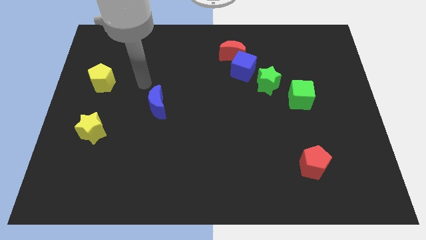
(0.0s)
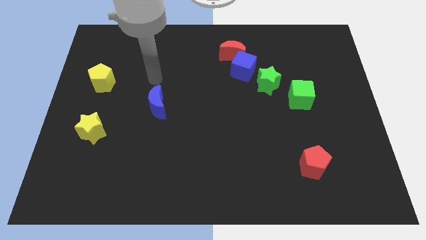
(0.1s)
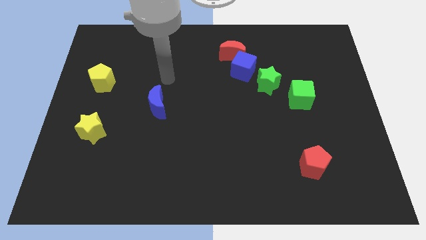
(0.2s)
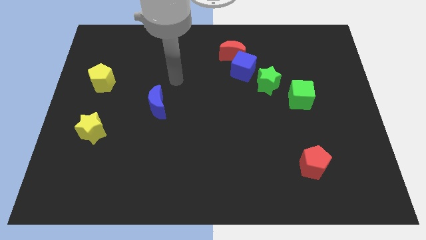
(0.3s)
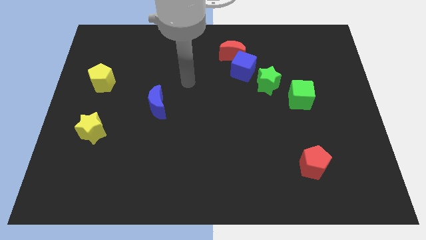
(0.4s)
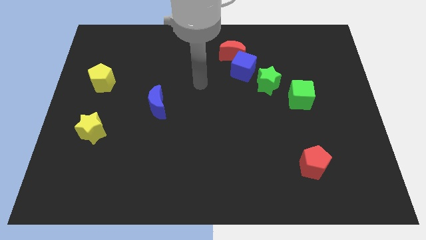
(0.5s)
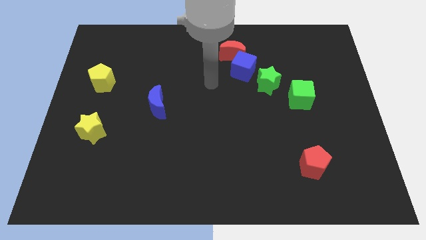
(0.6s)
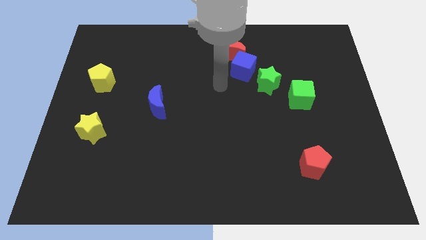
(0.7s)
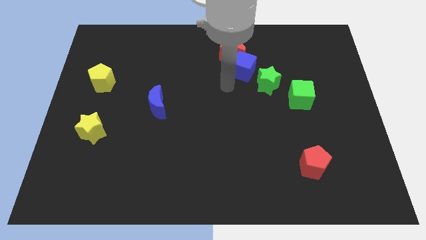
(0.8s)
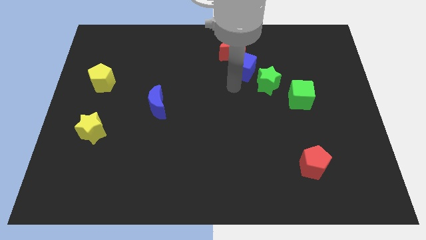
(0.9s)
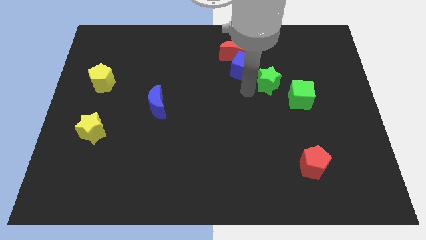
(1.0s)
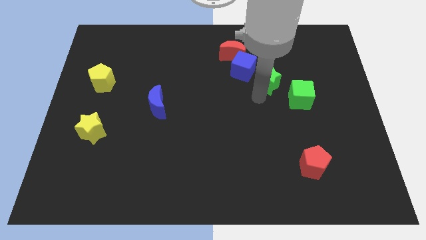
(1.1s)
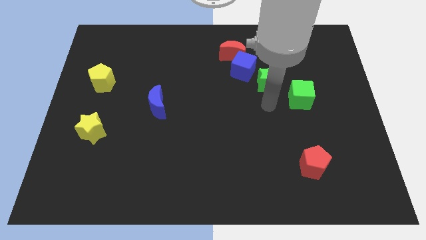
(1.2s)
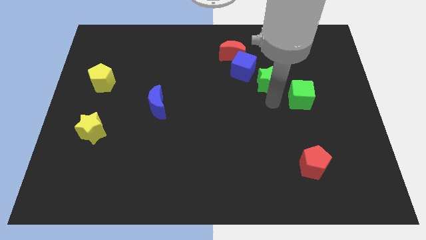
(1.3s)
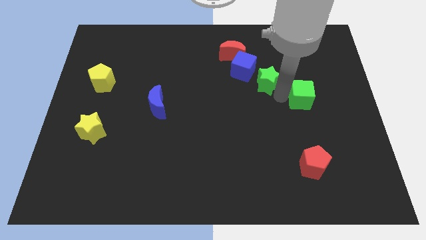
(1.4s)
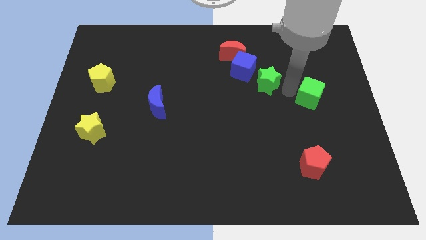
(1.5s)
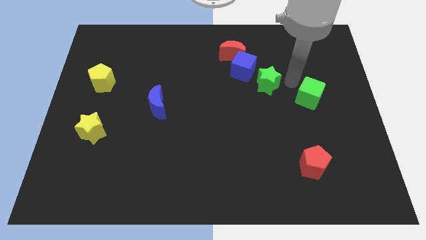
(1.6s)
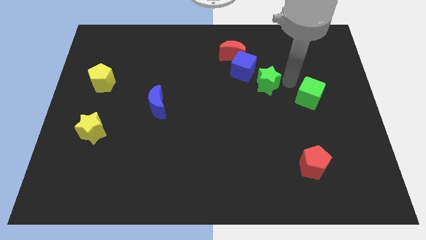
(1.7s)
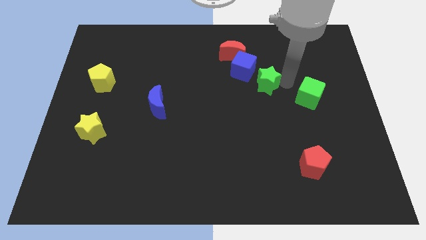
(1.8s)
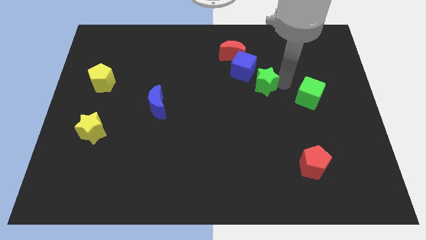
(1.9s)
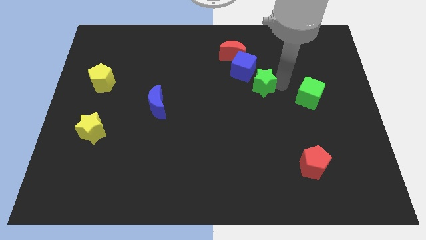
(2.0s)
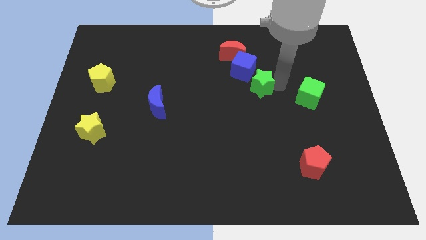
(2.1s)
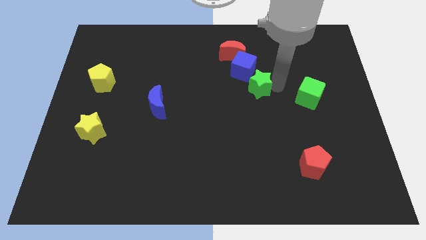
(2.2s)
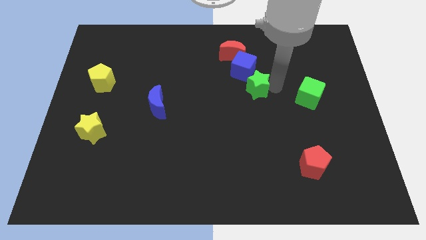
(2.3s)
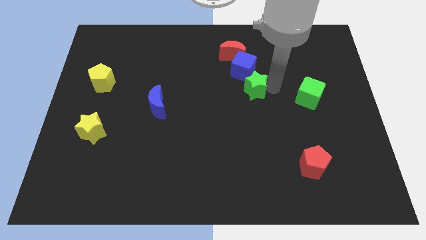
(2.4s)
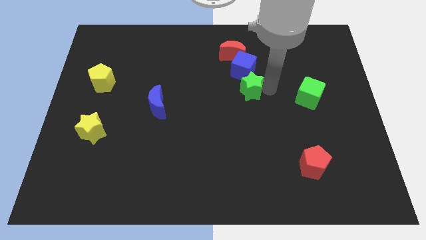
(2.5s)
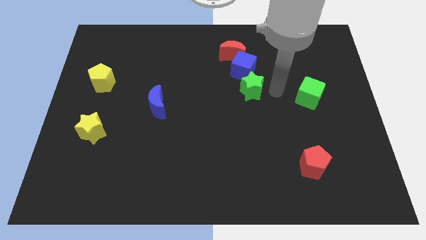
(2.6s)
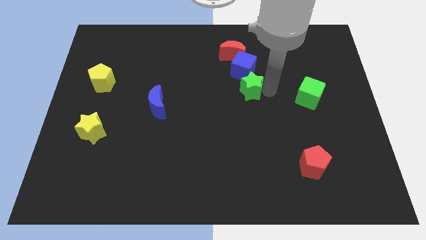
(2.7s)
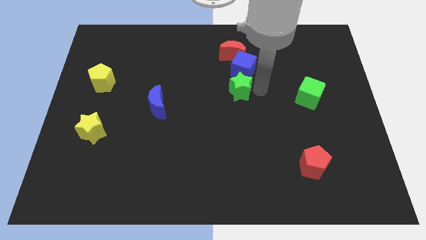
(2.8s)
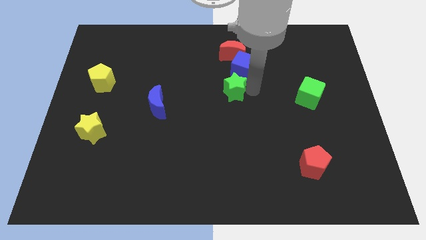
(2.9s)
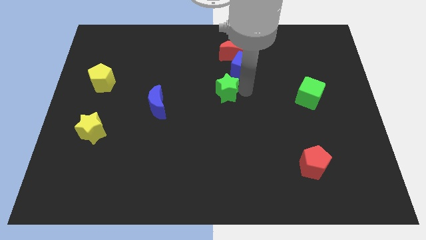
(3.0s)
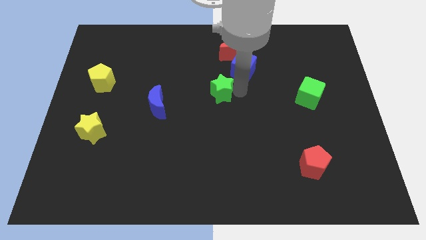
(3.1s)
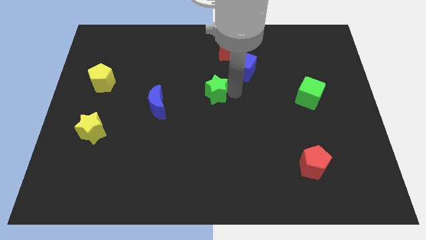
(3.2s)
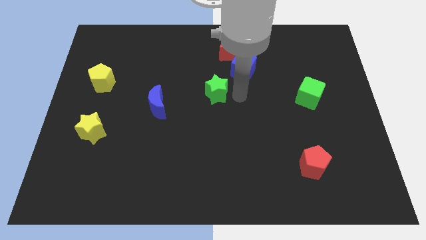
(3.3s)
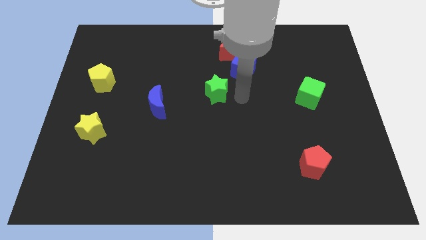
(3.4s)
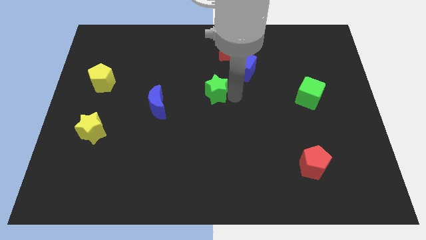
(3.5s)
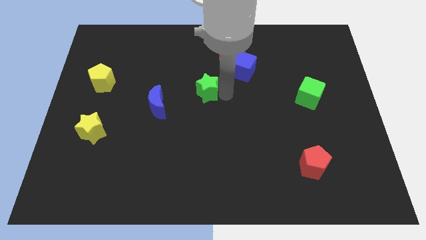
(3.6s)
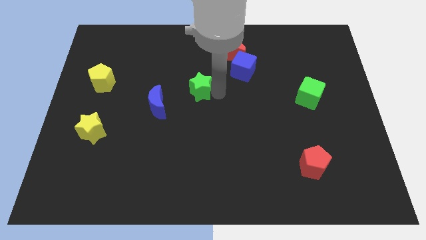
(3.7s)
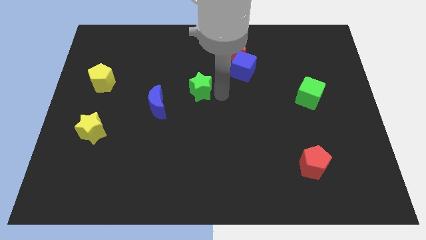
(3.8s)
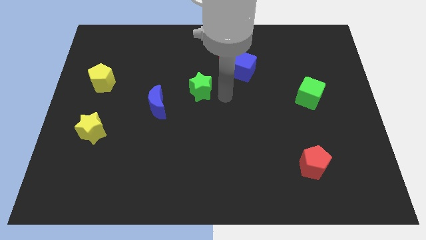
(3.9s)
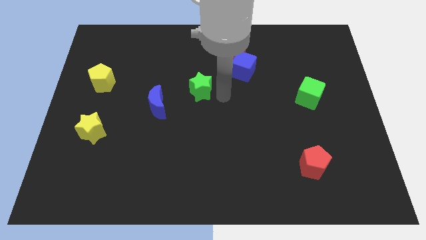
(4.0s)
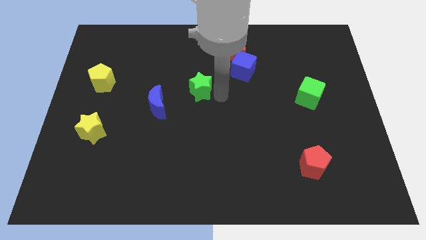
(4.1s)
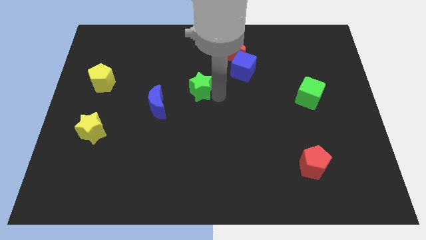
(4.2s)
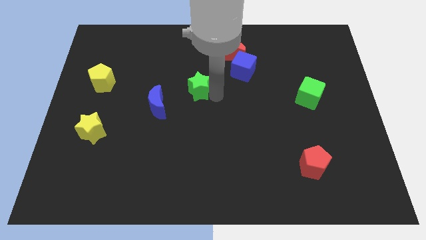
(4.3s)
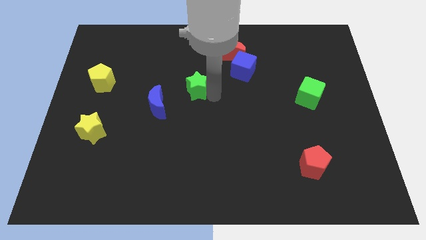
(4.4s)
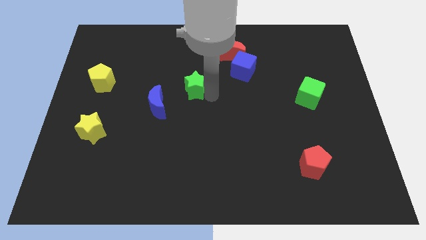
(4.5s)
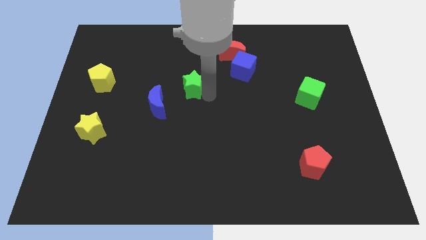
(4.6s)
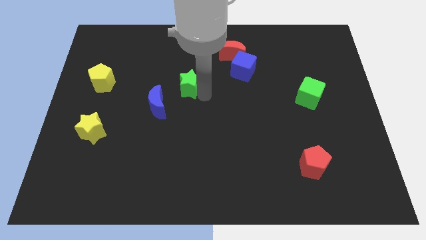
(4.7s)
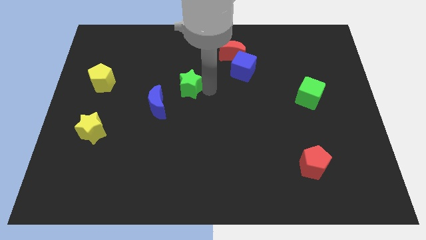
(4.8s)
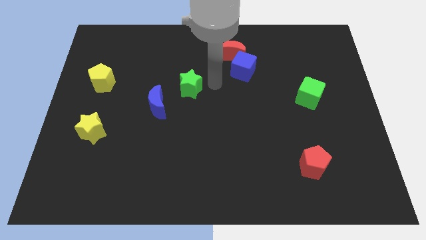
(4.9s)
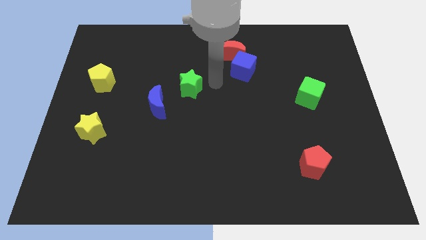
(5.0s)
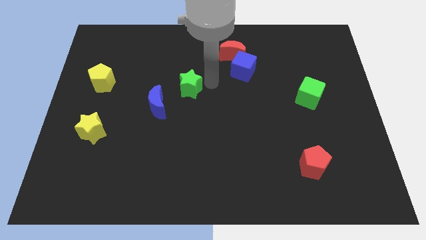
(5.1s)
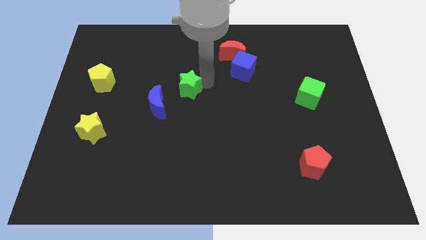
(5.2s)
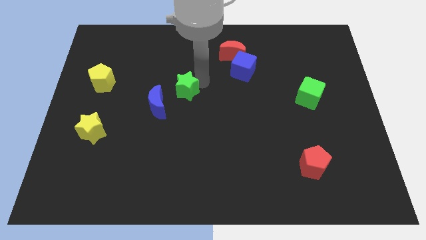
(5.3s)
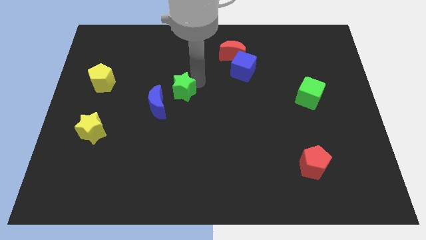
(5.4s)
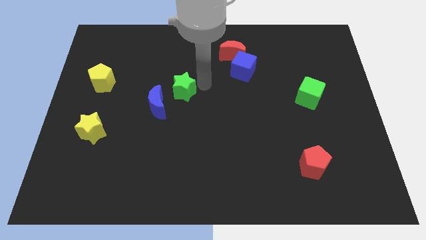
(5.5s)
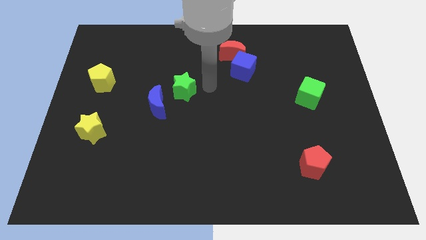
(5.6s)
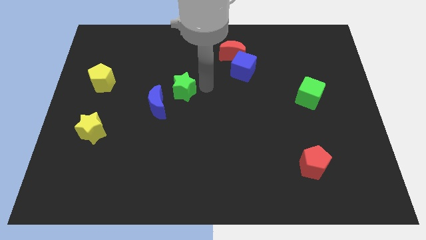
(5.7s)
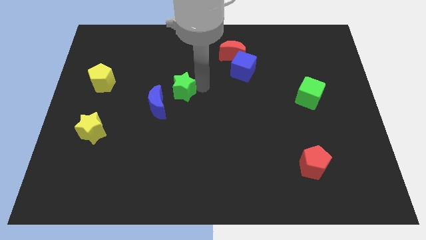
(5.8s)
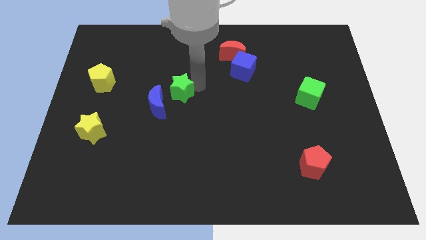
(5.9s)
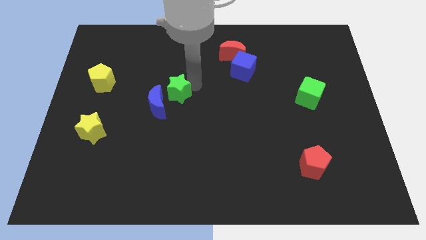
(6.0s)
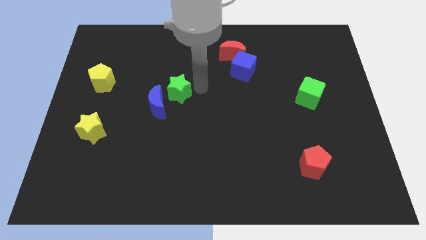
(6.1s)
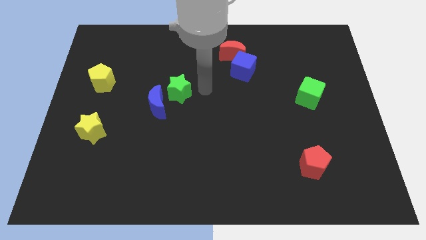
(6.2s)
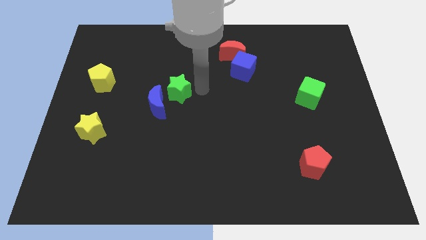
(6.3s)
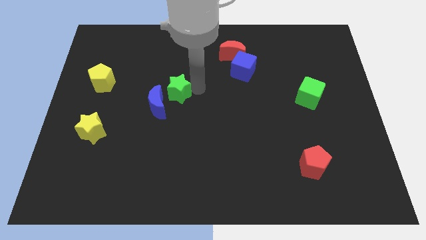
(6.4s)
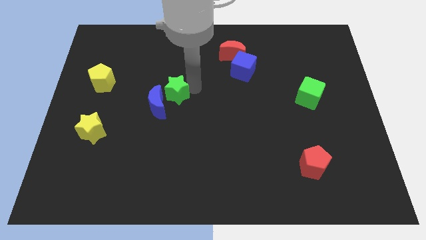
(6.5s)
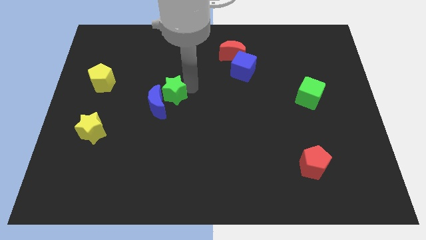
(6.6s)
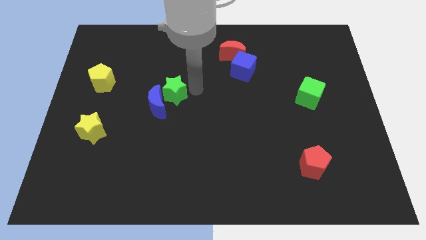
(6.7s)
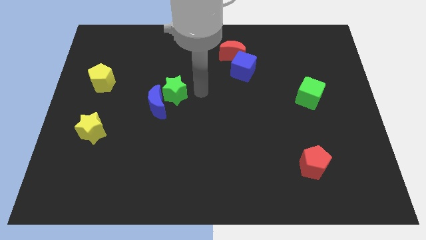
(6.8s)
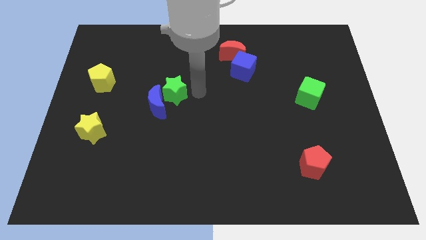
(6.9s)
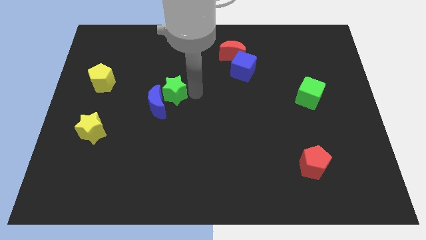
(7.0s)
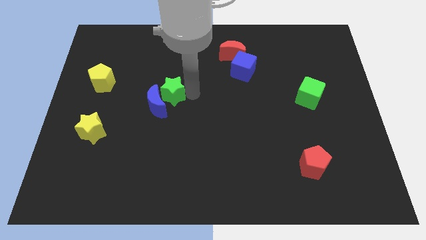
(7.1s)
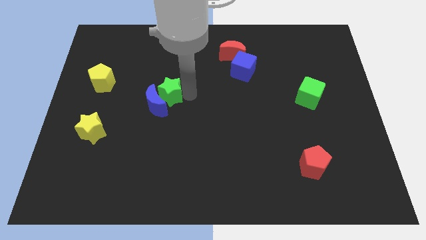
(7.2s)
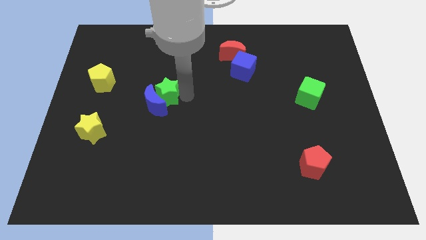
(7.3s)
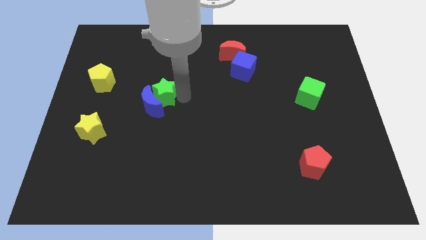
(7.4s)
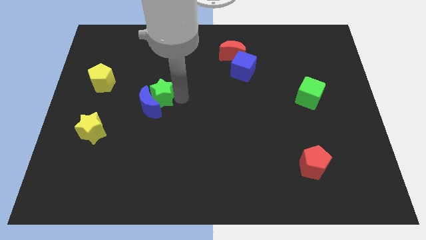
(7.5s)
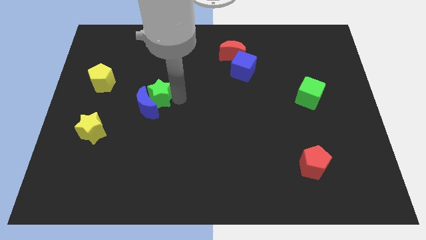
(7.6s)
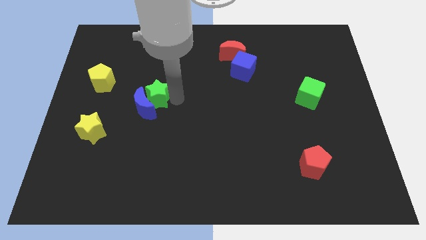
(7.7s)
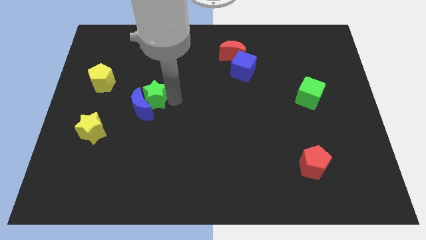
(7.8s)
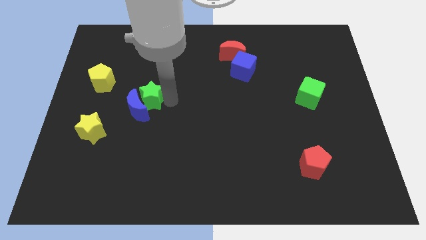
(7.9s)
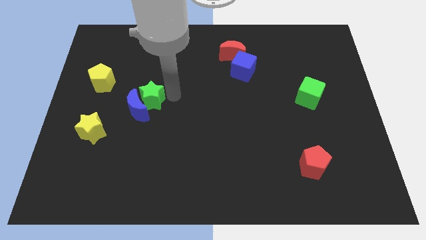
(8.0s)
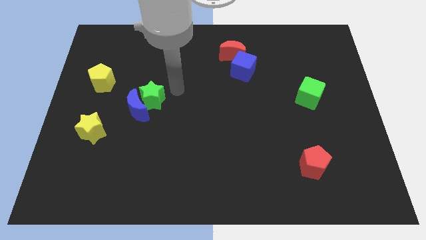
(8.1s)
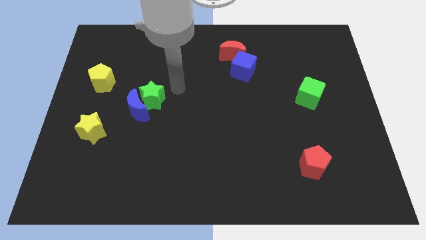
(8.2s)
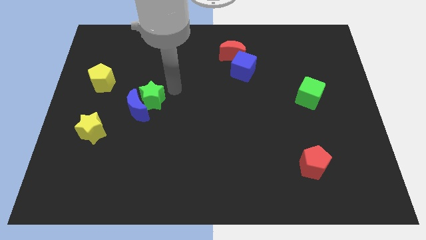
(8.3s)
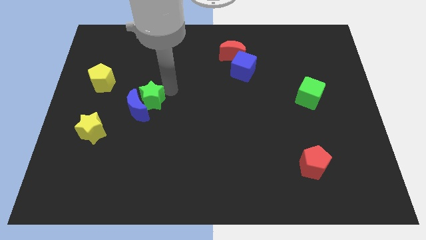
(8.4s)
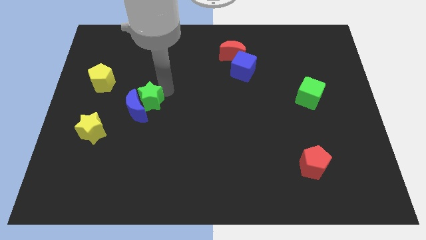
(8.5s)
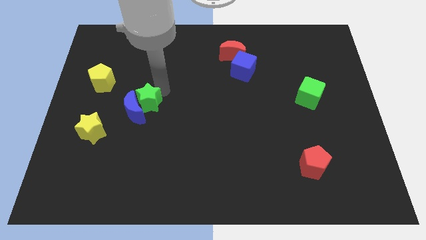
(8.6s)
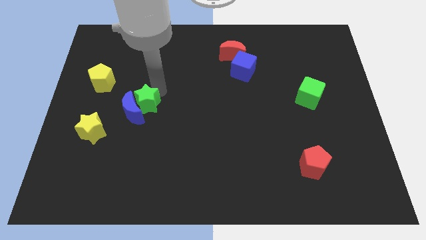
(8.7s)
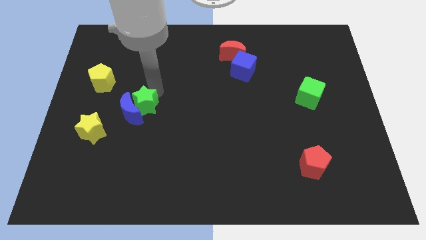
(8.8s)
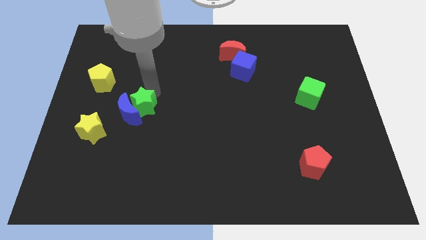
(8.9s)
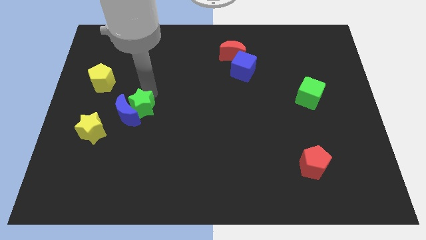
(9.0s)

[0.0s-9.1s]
move the green star diagonally up and to the right of the yellow star
